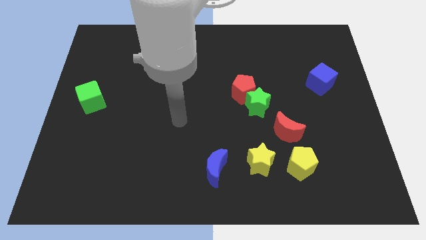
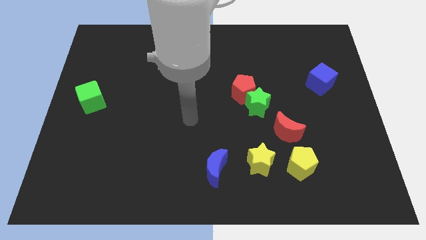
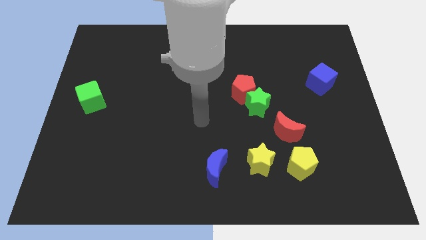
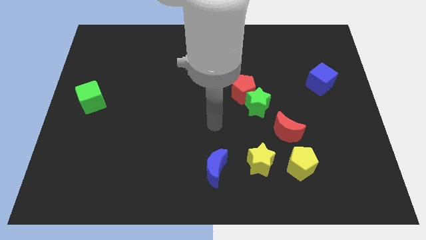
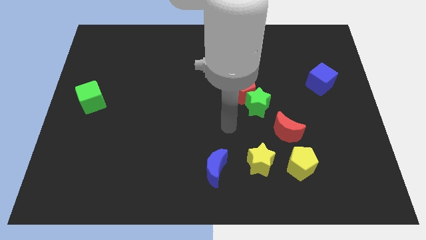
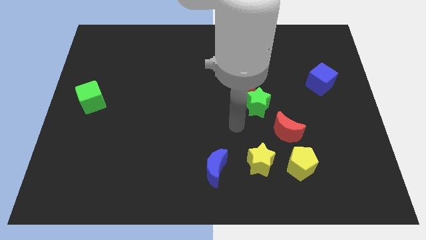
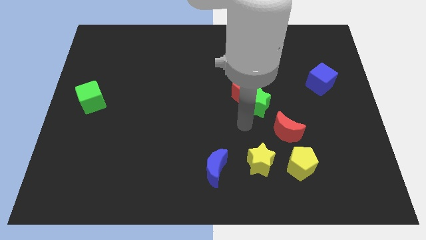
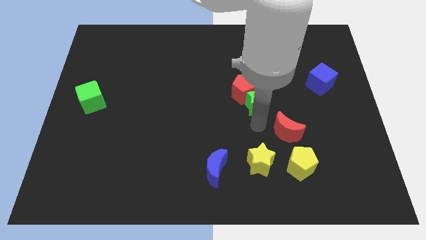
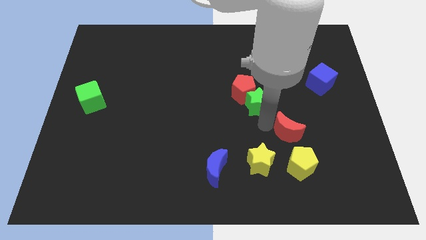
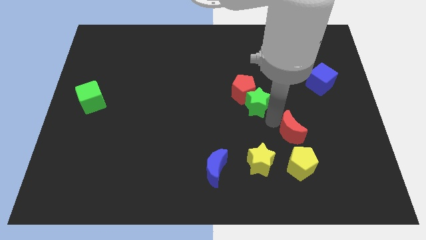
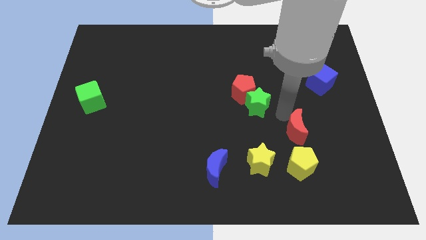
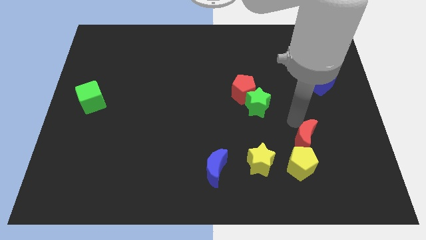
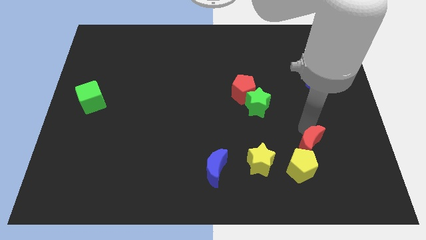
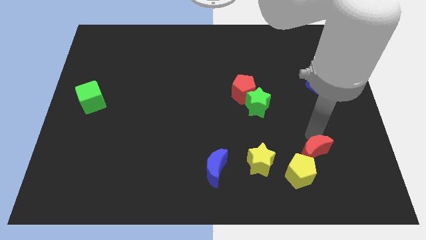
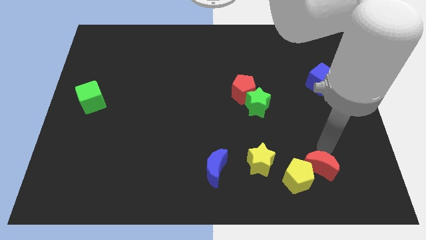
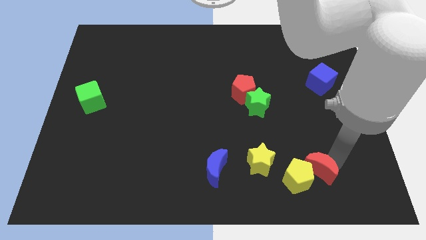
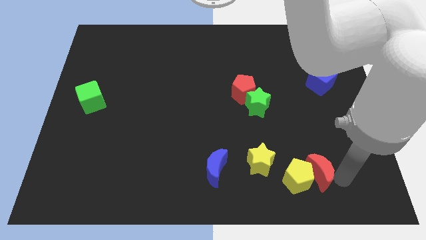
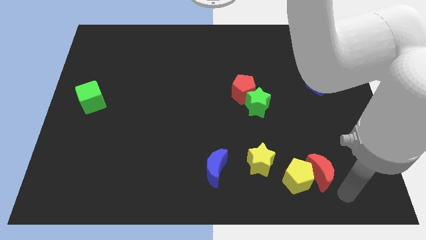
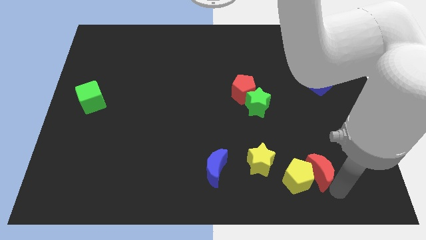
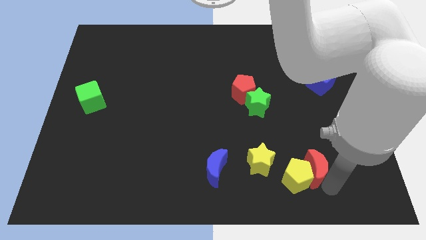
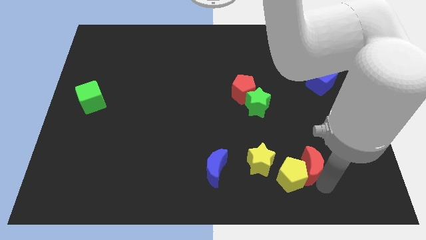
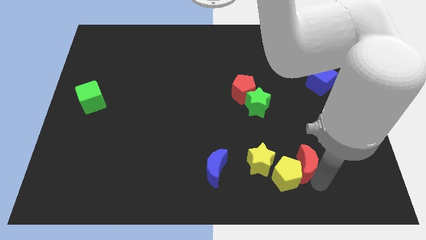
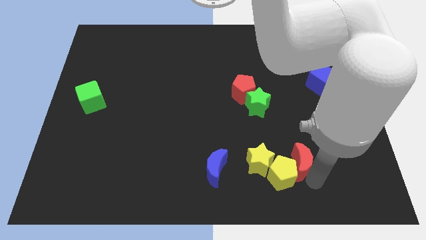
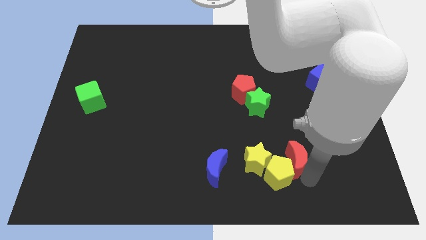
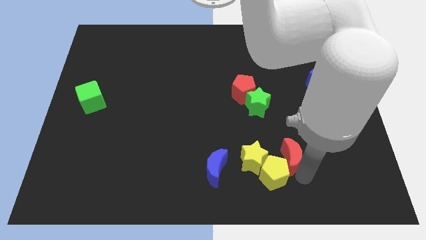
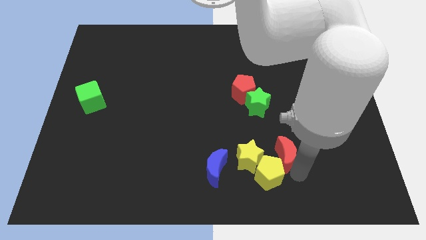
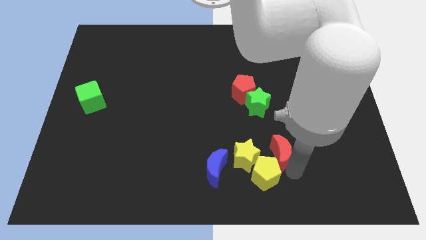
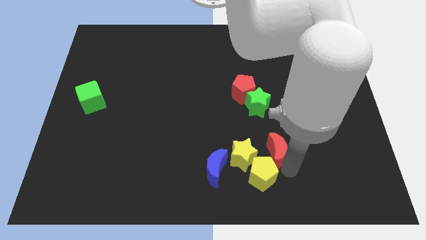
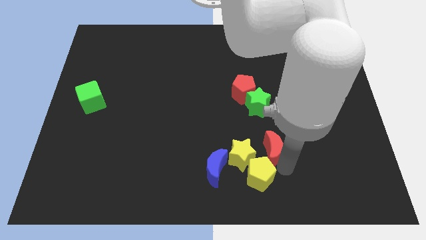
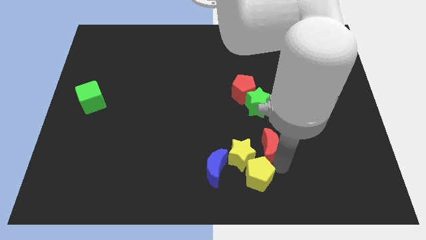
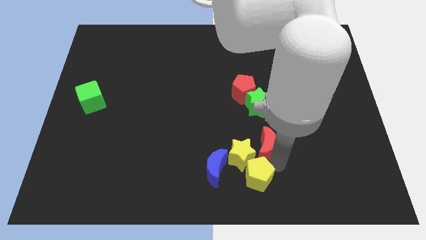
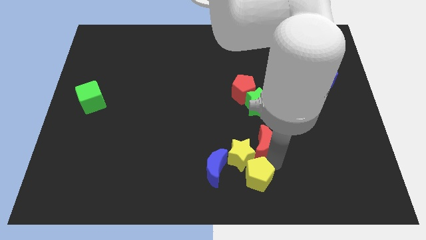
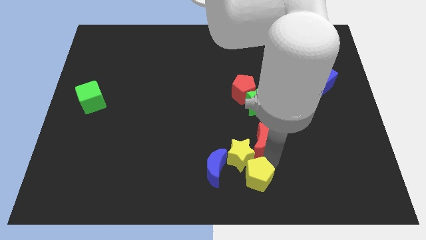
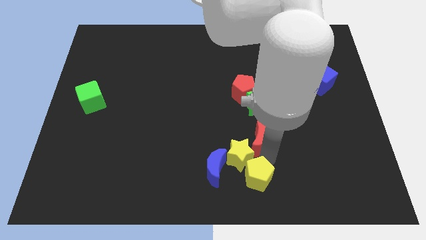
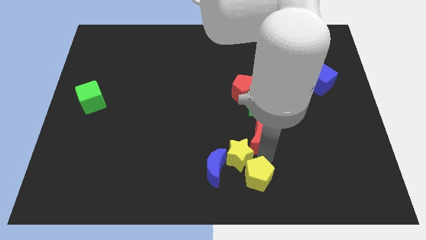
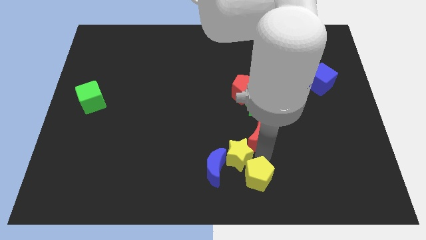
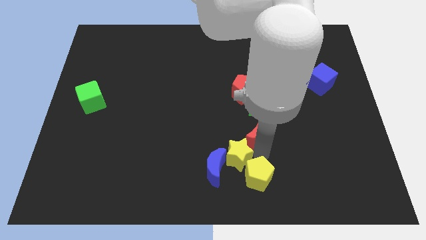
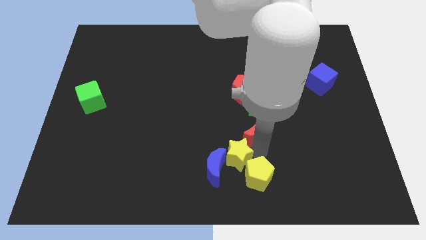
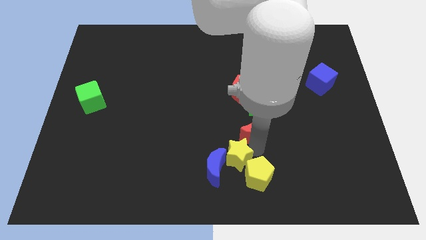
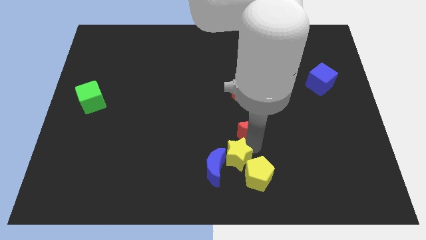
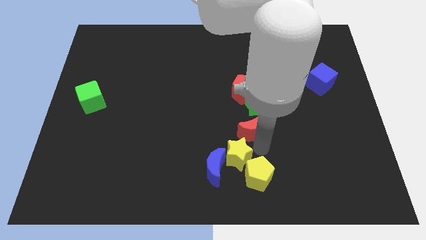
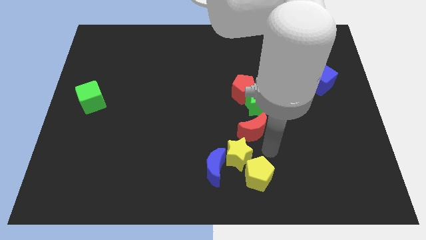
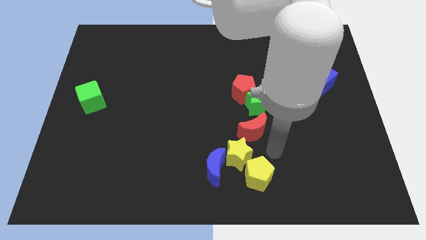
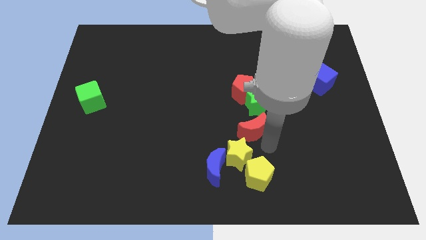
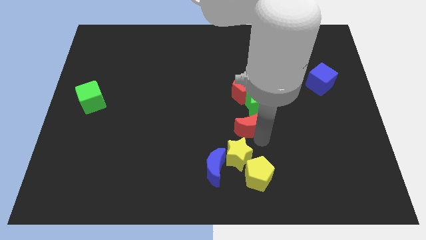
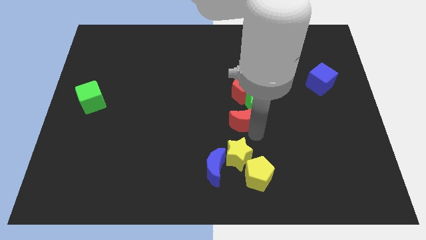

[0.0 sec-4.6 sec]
push the red moon diagonally up and left a bit

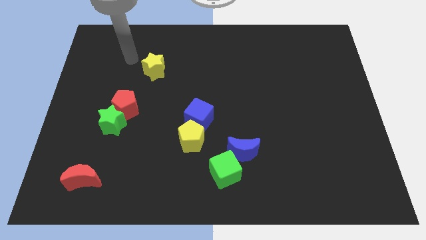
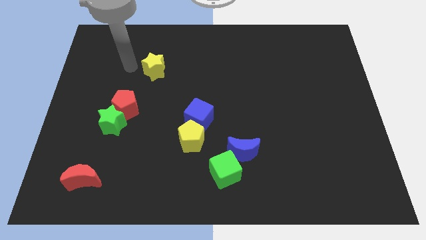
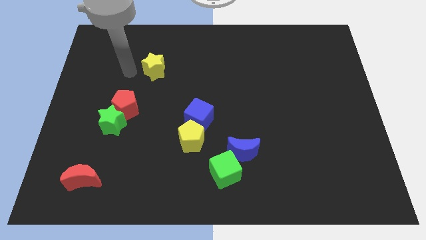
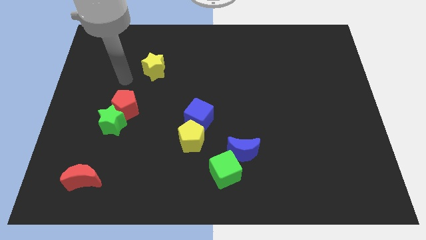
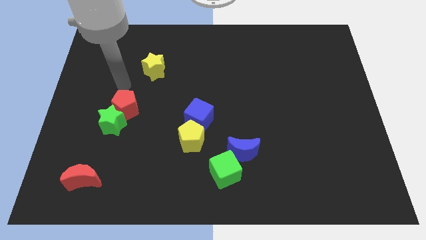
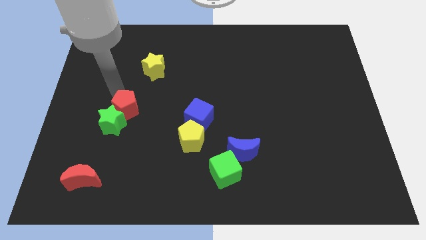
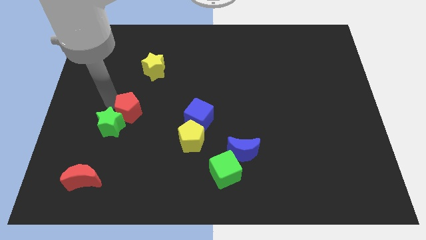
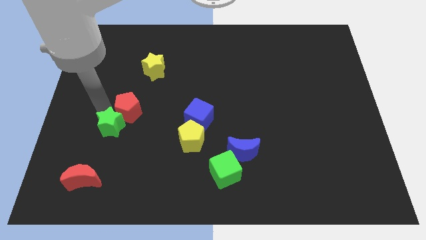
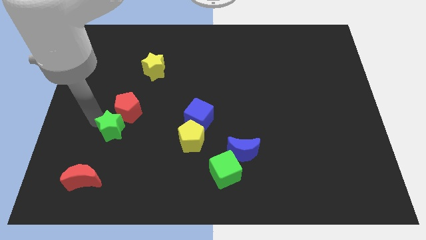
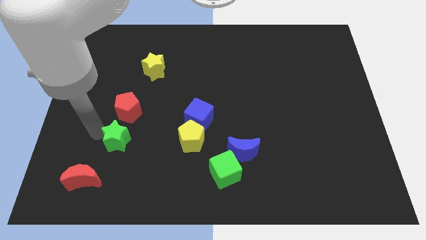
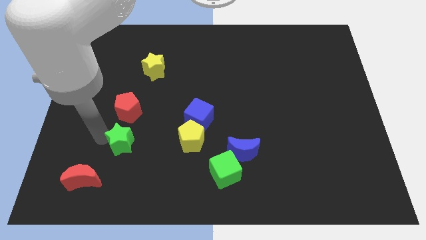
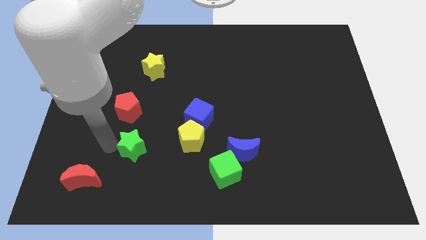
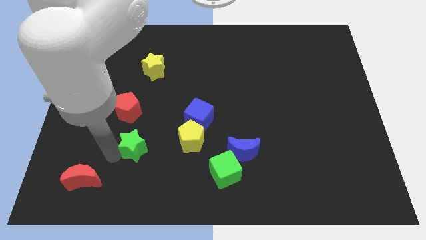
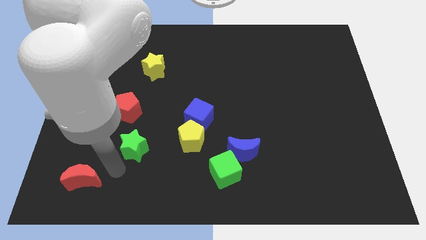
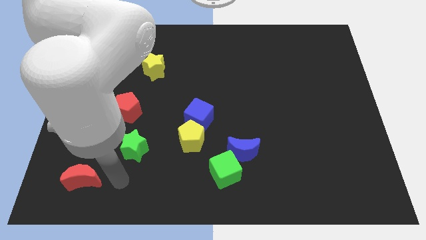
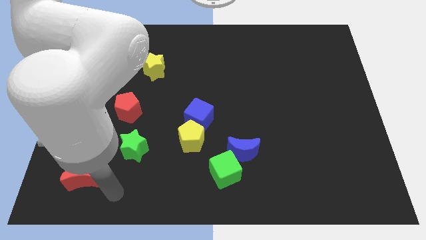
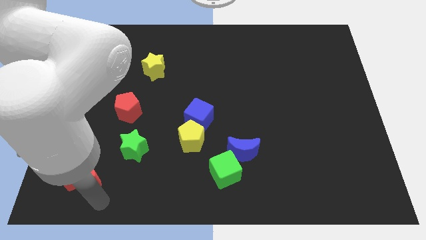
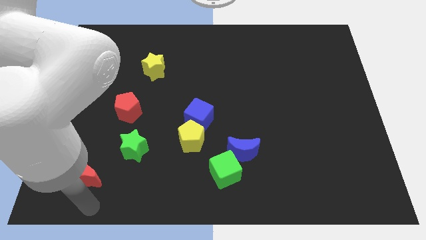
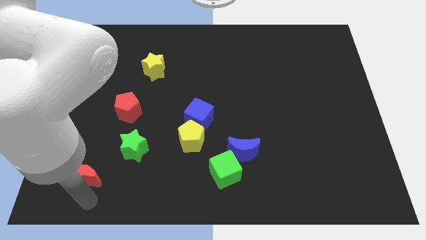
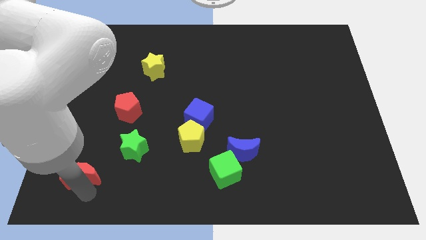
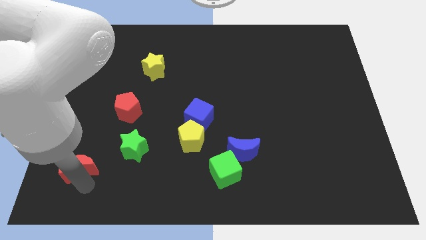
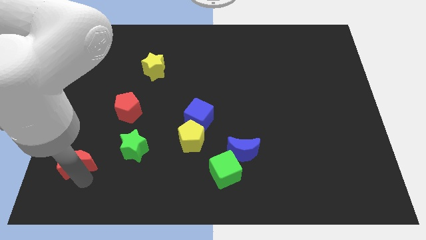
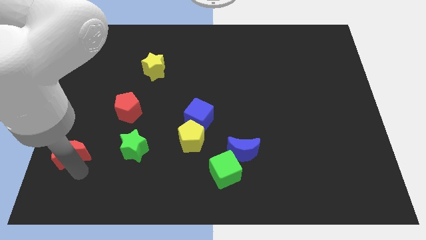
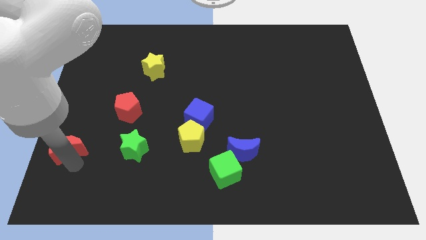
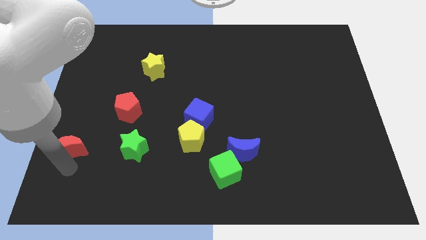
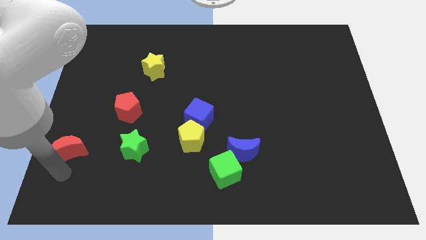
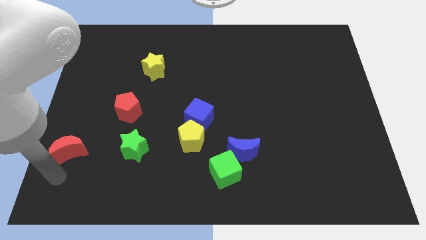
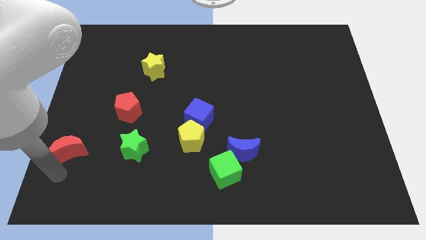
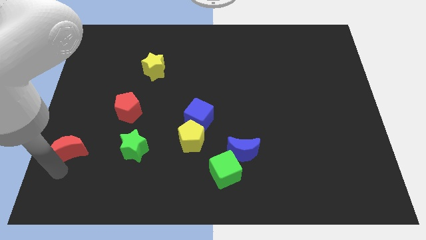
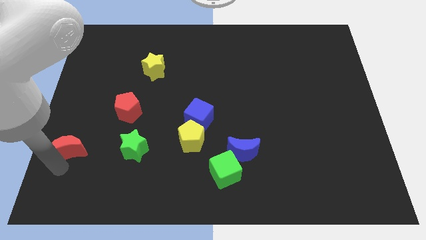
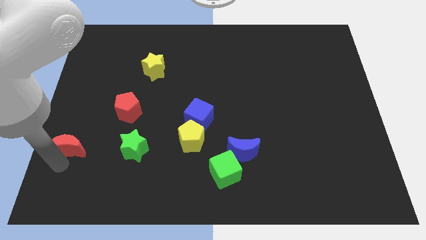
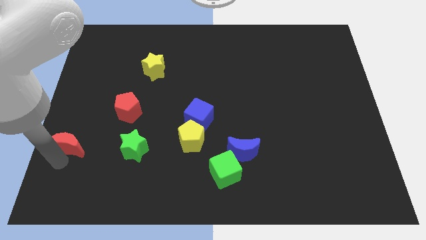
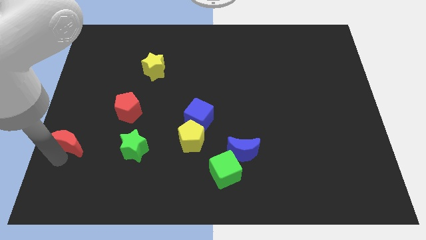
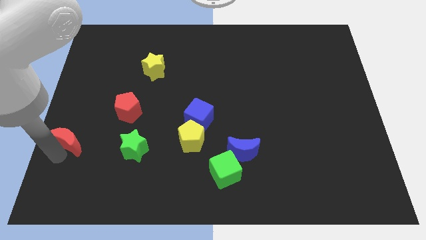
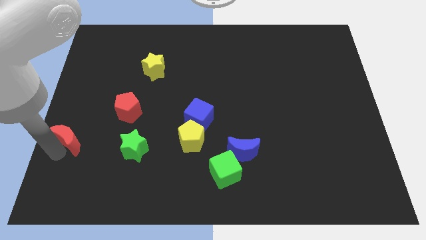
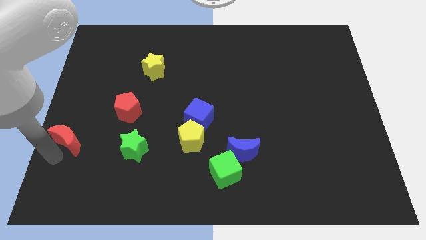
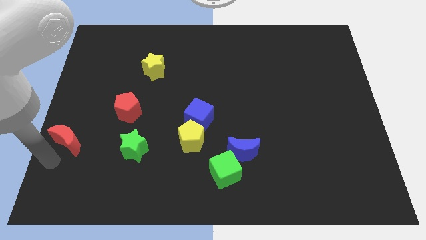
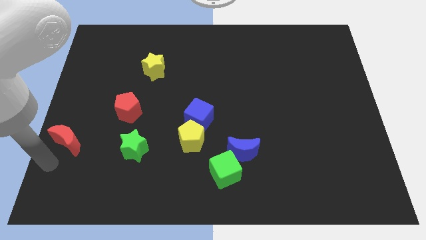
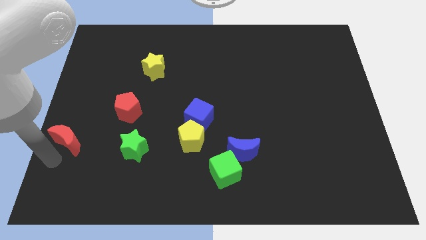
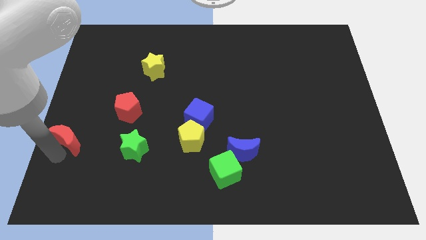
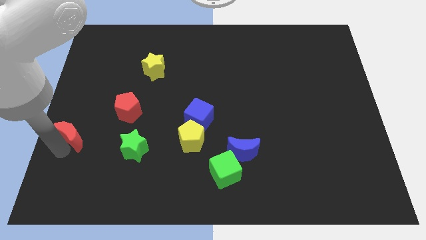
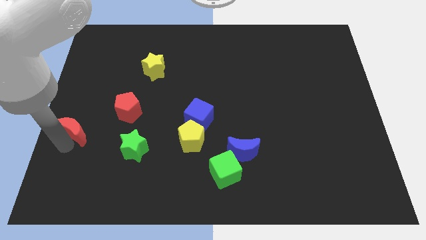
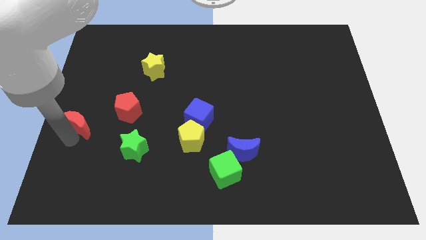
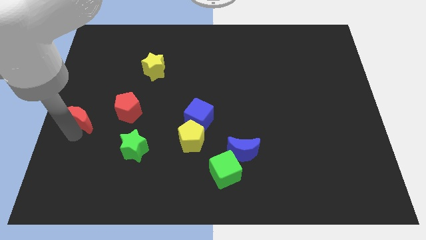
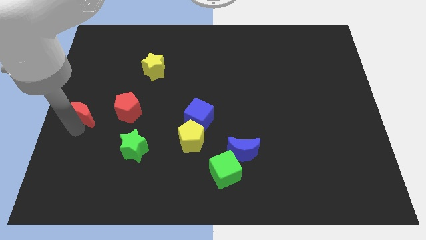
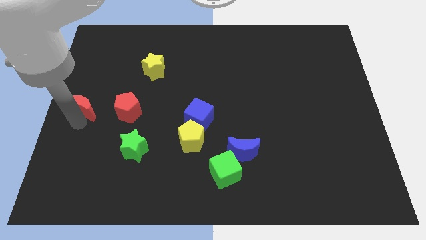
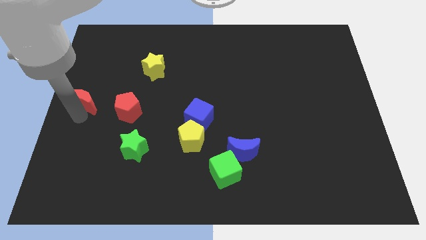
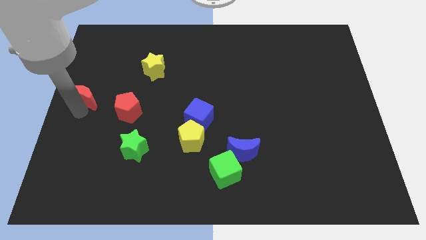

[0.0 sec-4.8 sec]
move the red moon upwards
